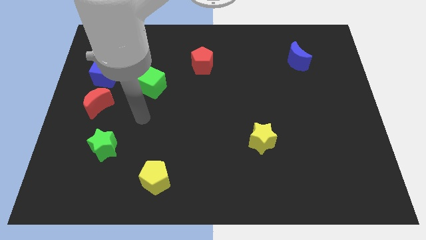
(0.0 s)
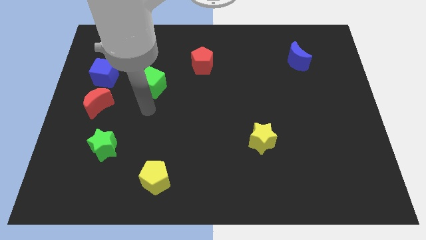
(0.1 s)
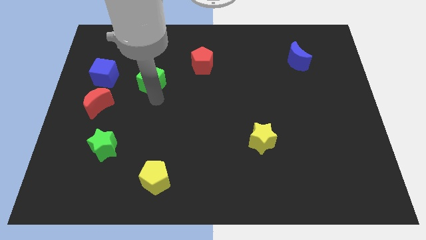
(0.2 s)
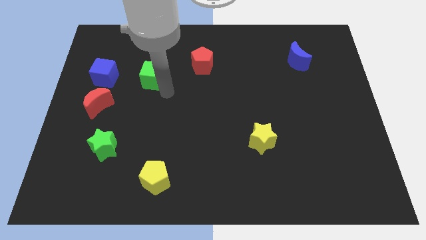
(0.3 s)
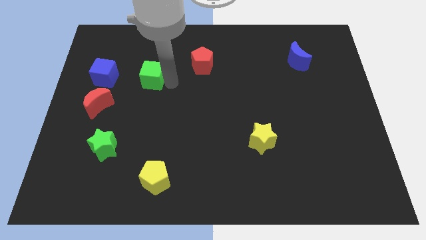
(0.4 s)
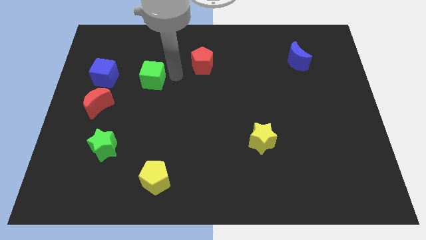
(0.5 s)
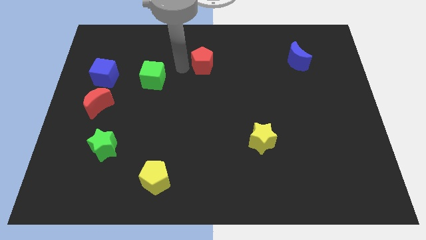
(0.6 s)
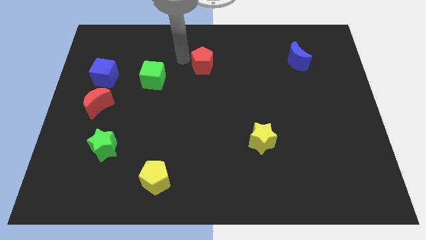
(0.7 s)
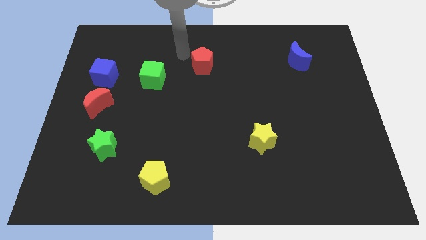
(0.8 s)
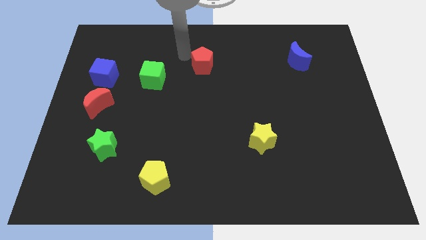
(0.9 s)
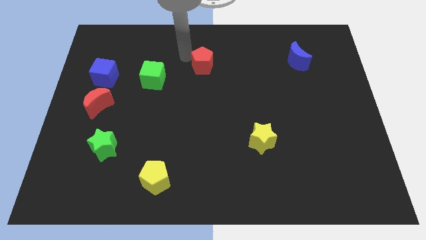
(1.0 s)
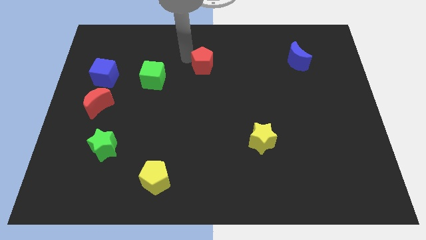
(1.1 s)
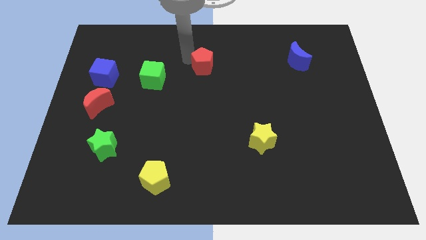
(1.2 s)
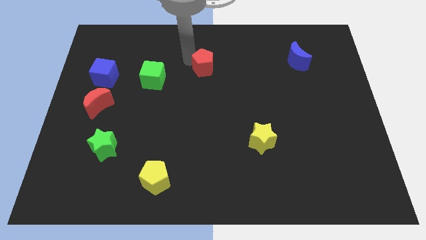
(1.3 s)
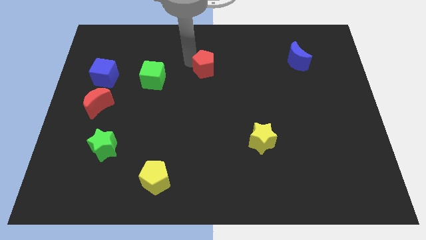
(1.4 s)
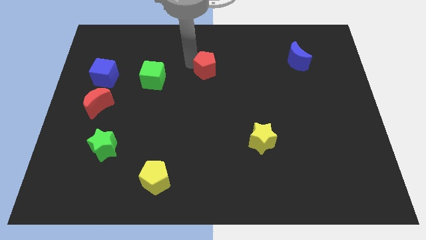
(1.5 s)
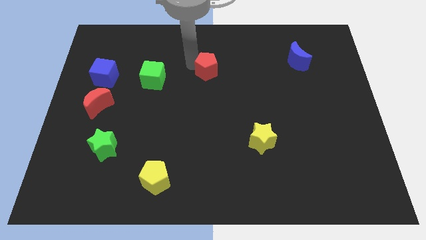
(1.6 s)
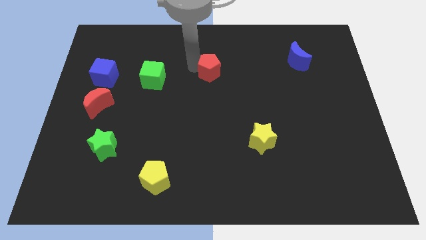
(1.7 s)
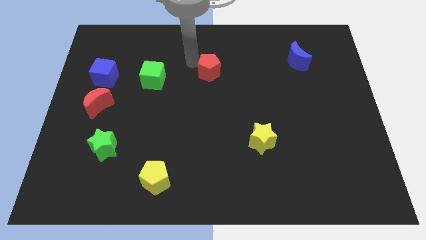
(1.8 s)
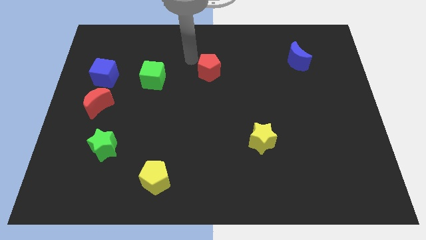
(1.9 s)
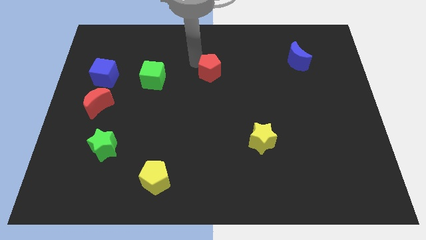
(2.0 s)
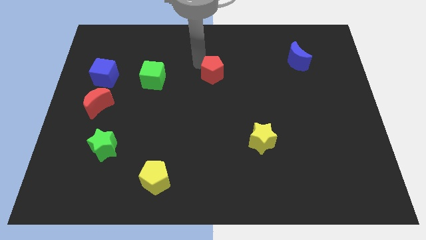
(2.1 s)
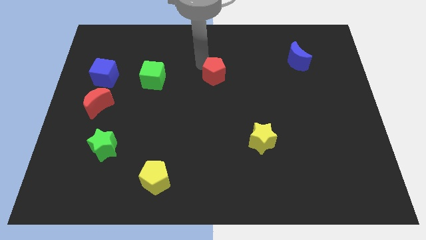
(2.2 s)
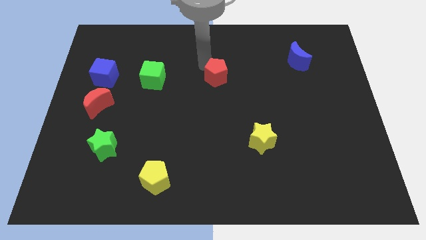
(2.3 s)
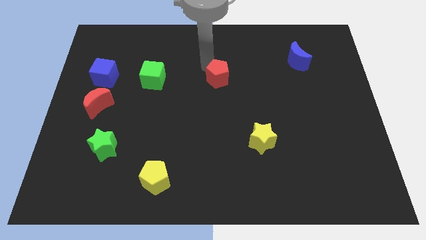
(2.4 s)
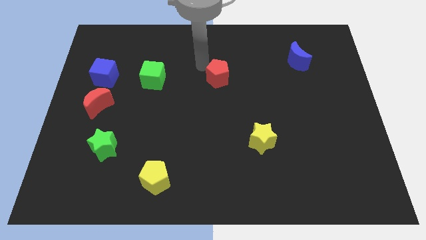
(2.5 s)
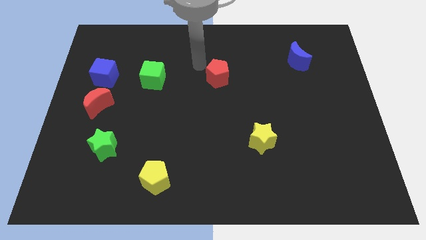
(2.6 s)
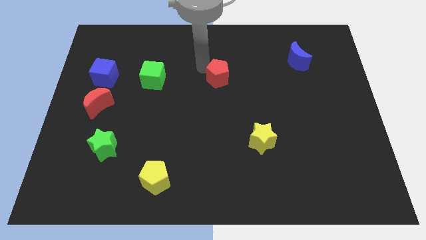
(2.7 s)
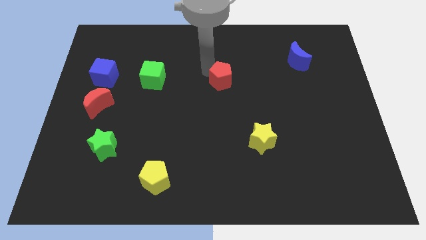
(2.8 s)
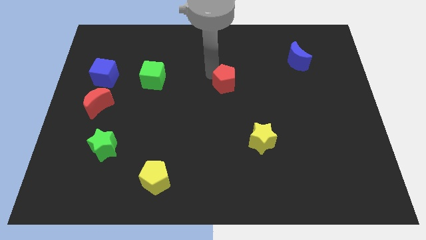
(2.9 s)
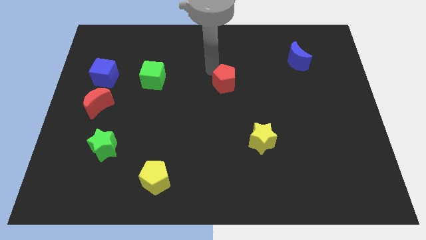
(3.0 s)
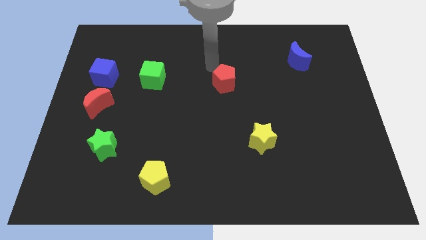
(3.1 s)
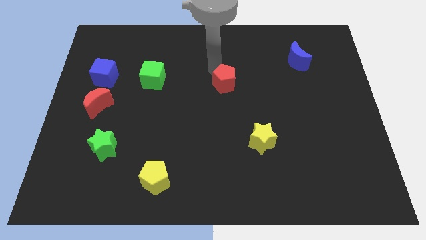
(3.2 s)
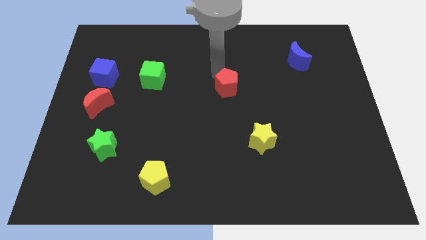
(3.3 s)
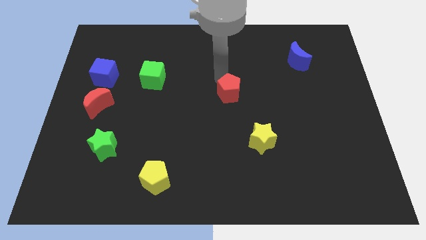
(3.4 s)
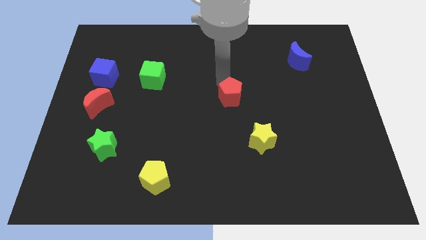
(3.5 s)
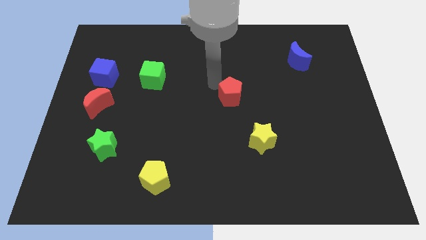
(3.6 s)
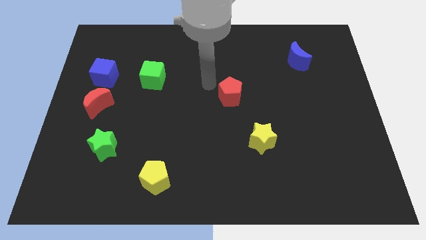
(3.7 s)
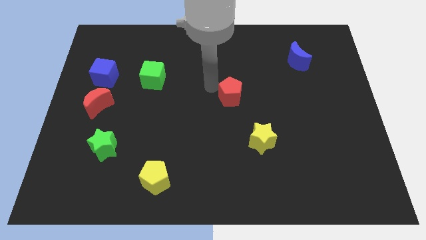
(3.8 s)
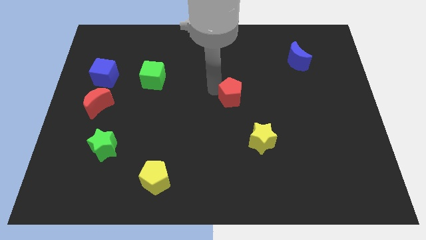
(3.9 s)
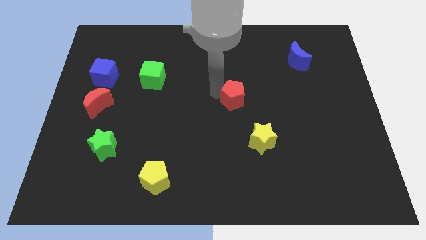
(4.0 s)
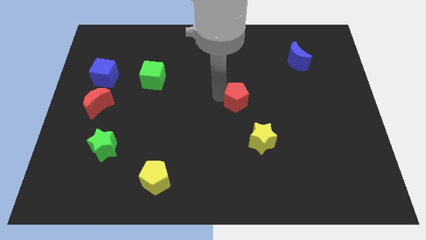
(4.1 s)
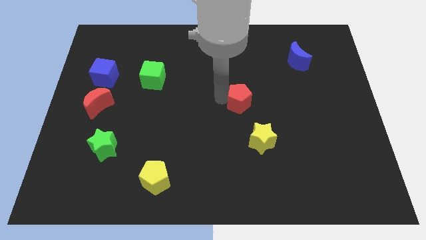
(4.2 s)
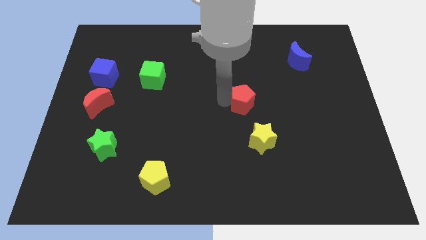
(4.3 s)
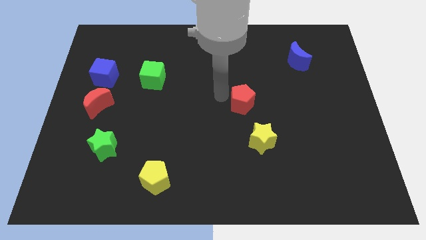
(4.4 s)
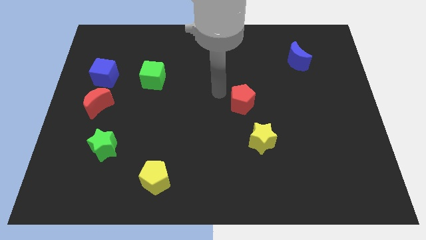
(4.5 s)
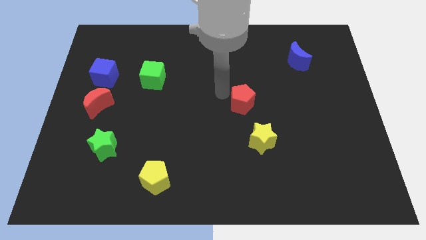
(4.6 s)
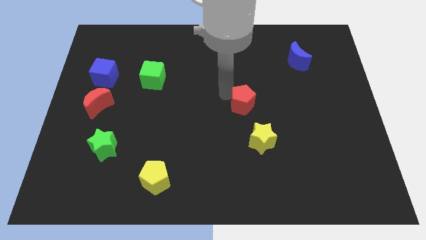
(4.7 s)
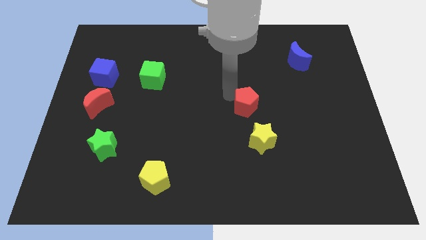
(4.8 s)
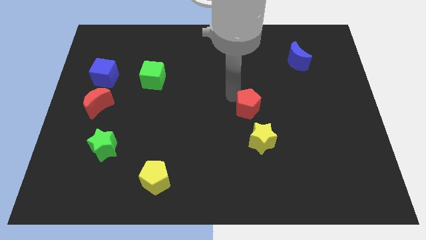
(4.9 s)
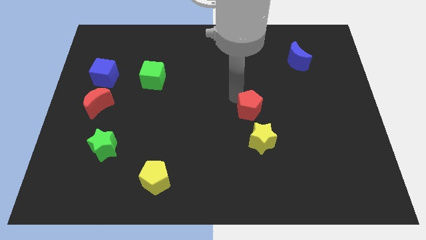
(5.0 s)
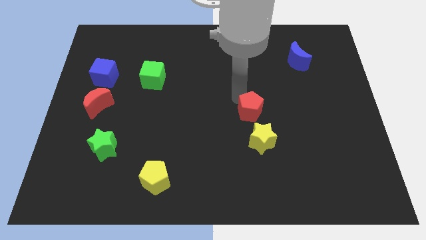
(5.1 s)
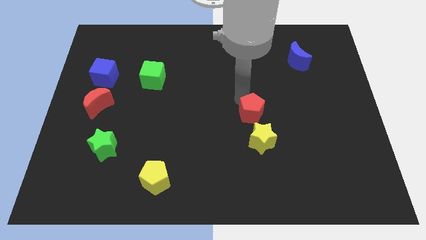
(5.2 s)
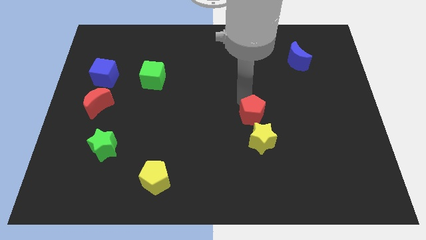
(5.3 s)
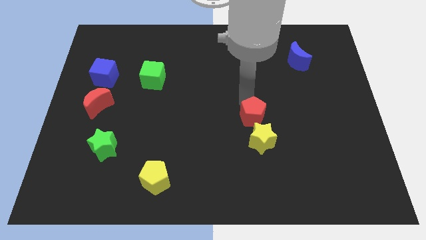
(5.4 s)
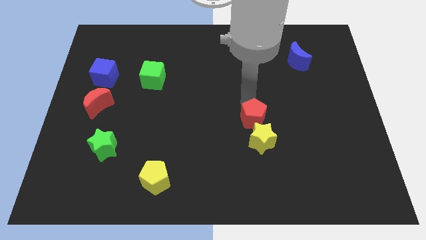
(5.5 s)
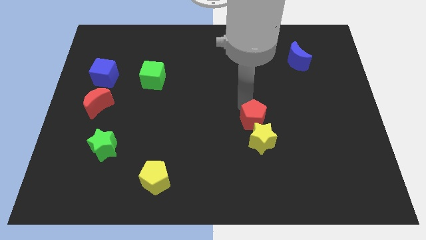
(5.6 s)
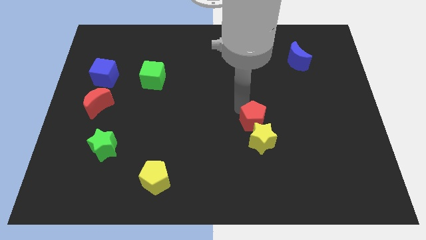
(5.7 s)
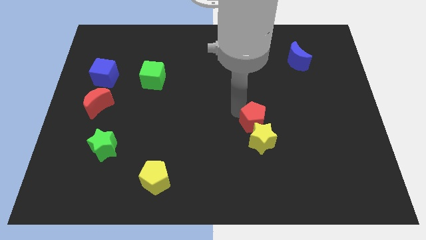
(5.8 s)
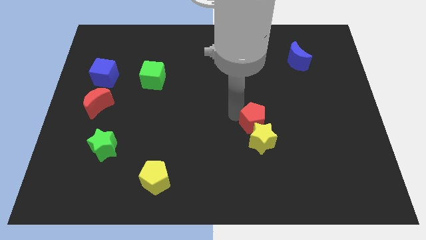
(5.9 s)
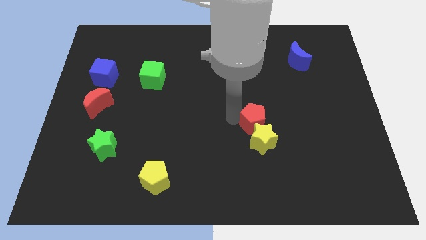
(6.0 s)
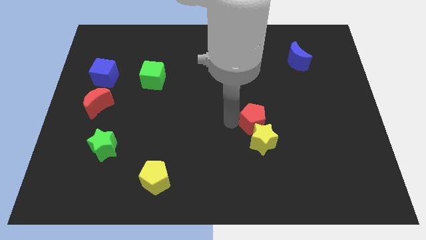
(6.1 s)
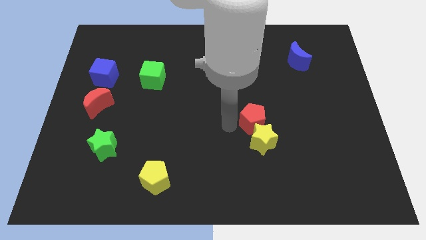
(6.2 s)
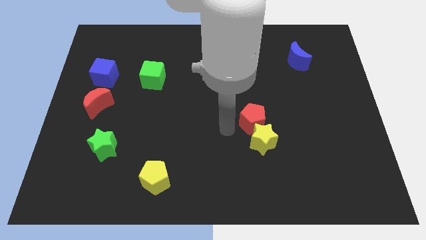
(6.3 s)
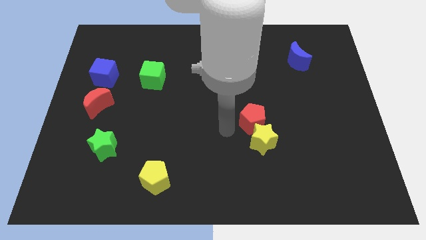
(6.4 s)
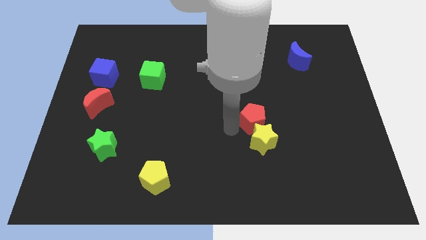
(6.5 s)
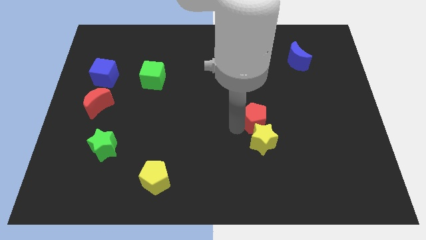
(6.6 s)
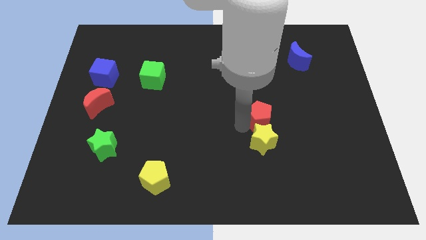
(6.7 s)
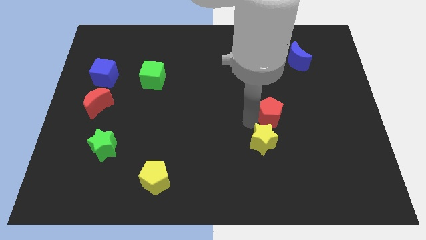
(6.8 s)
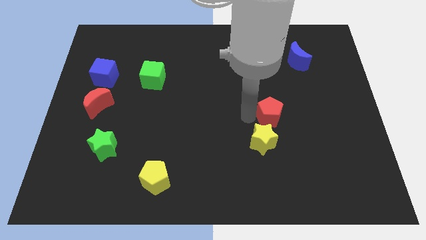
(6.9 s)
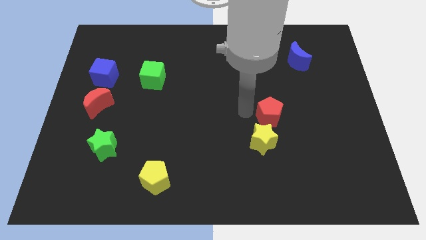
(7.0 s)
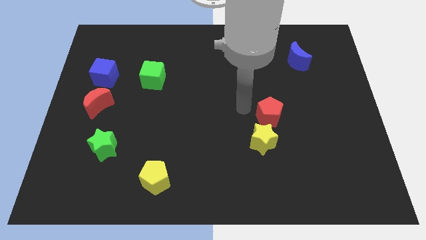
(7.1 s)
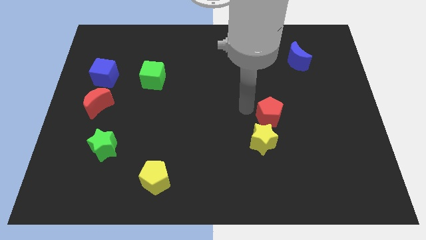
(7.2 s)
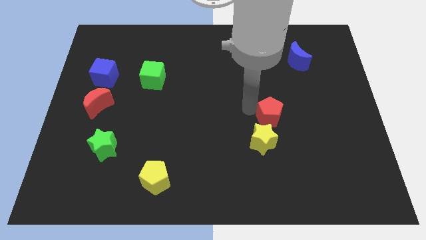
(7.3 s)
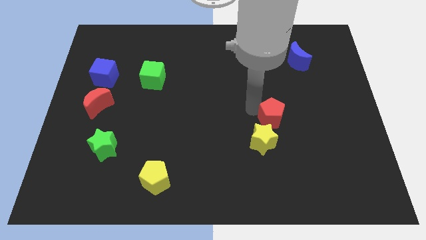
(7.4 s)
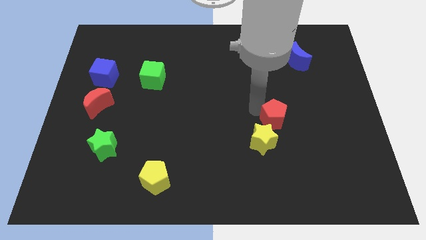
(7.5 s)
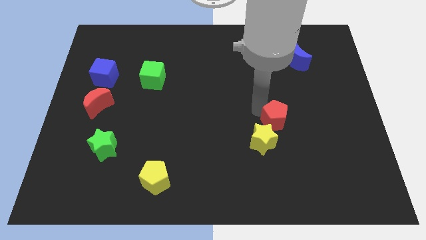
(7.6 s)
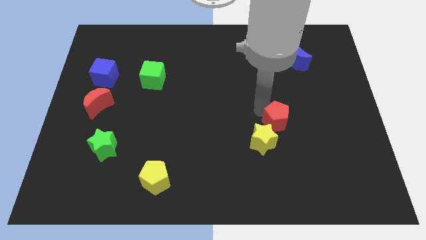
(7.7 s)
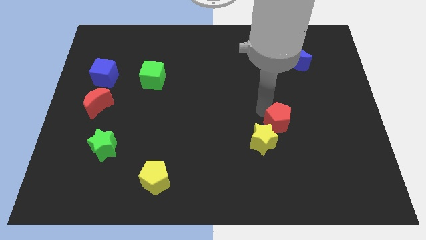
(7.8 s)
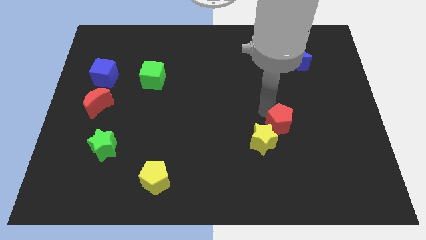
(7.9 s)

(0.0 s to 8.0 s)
slide the red pentagon just right of the yellow star

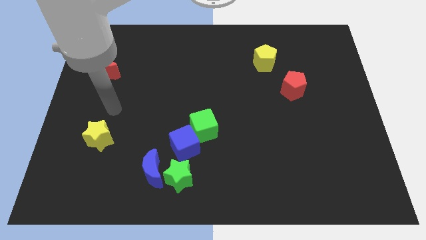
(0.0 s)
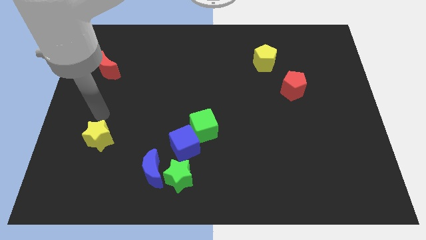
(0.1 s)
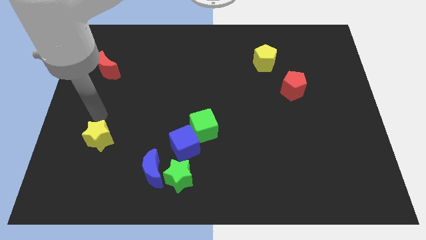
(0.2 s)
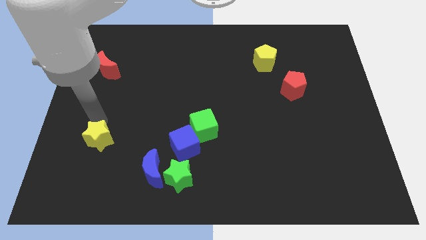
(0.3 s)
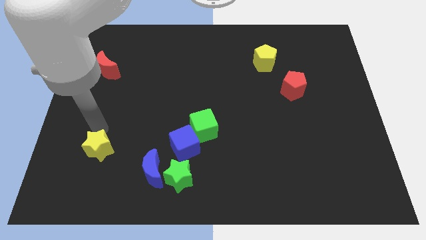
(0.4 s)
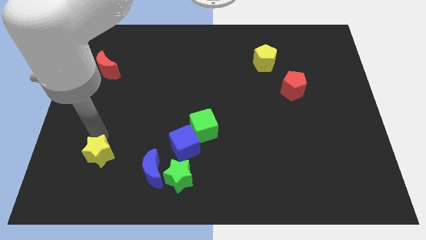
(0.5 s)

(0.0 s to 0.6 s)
push the yellow star just left of the blue moon
